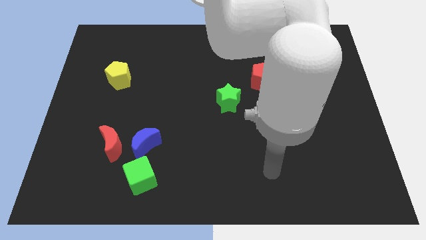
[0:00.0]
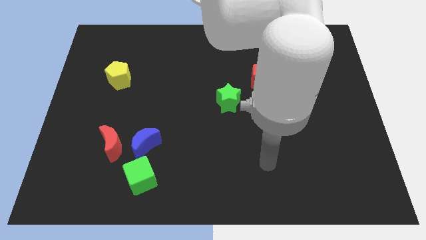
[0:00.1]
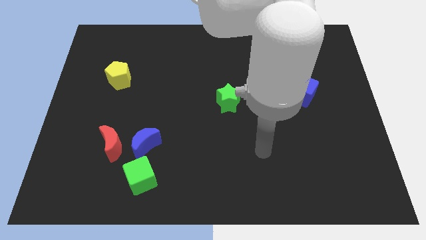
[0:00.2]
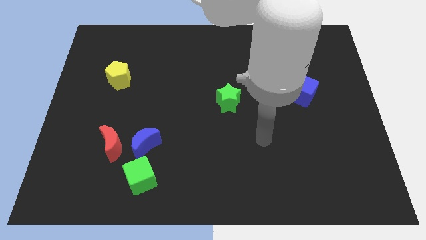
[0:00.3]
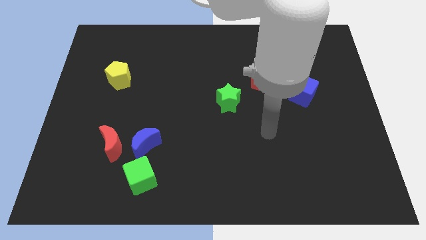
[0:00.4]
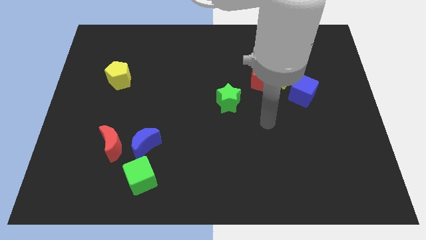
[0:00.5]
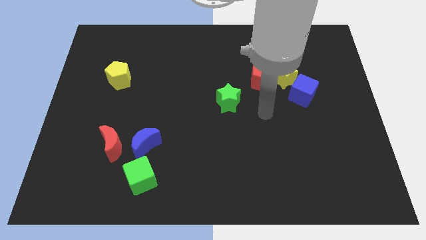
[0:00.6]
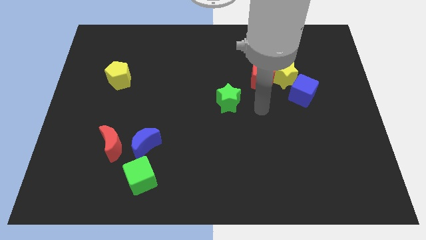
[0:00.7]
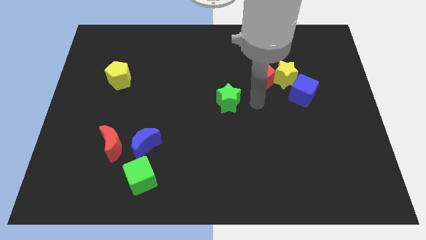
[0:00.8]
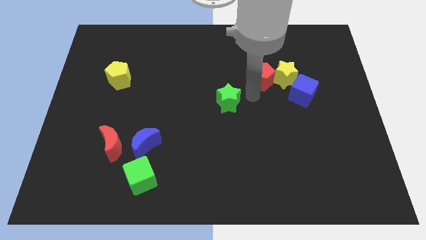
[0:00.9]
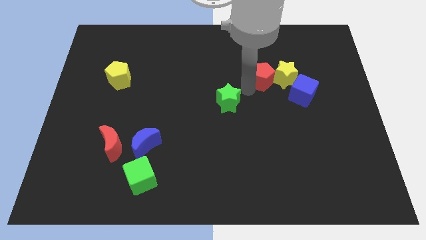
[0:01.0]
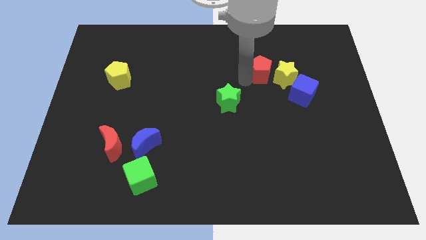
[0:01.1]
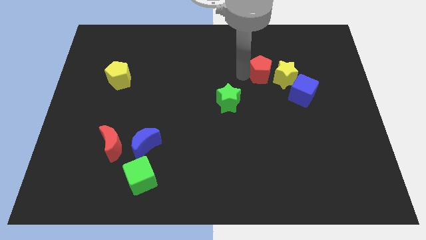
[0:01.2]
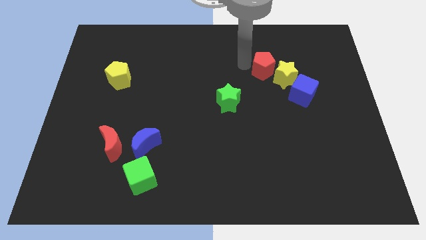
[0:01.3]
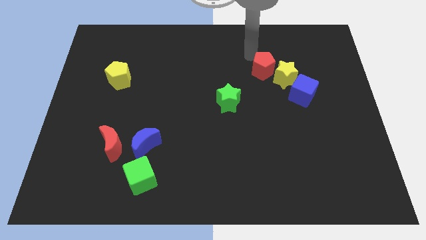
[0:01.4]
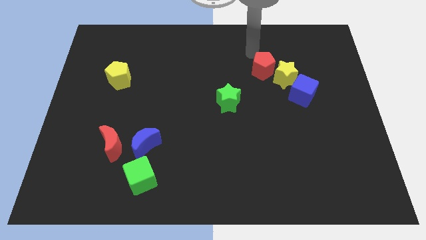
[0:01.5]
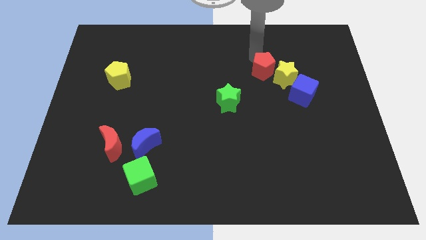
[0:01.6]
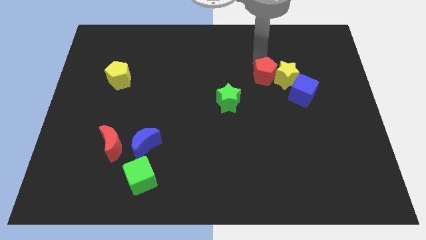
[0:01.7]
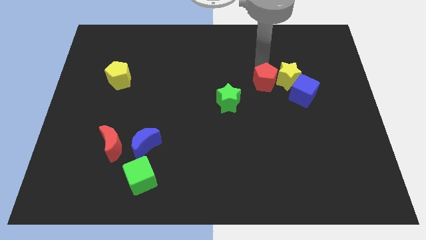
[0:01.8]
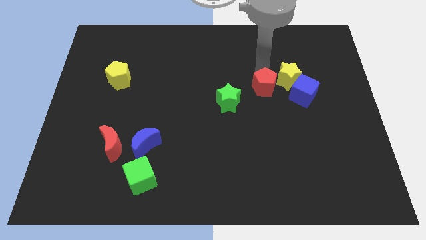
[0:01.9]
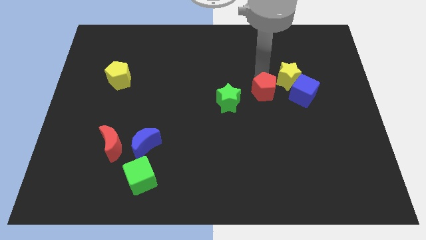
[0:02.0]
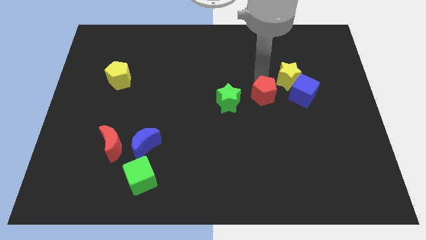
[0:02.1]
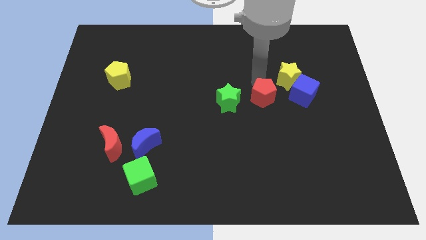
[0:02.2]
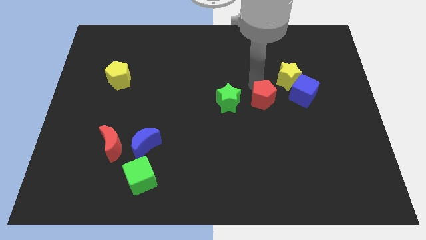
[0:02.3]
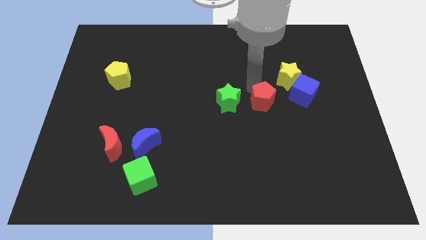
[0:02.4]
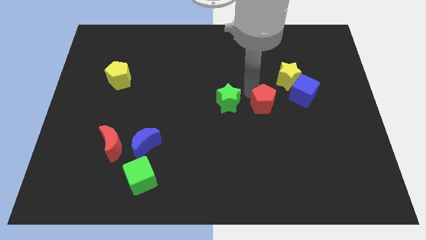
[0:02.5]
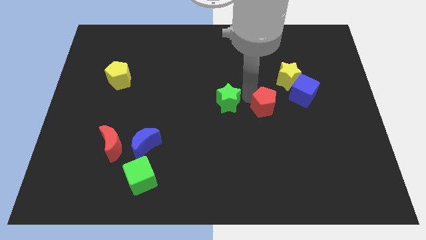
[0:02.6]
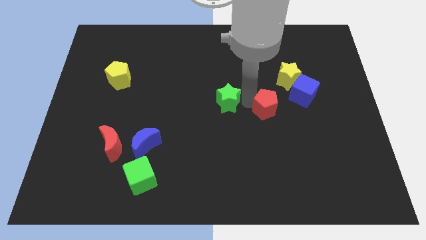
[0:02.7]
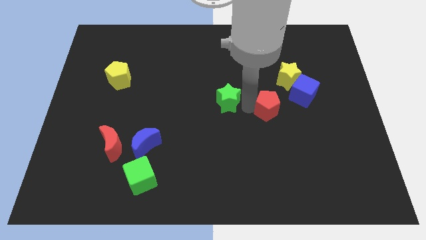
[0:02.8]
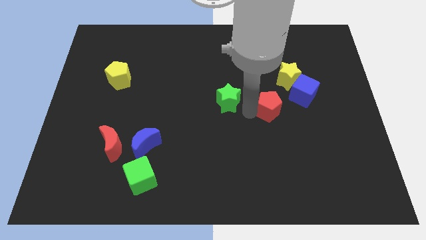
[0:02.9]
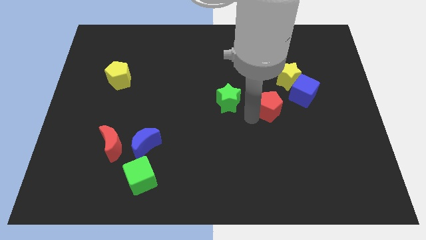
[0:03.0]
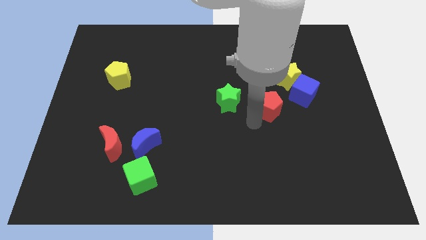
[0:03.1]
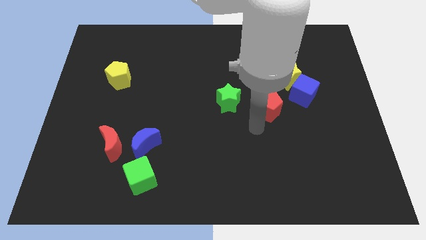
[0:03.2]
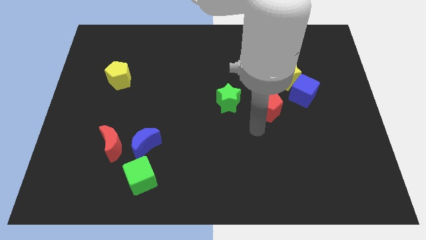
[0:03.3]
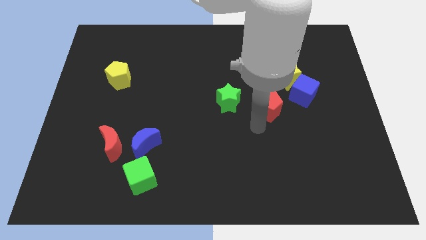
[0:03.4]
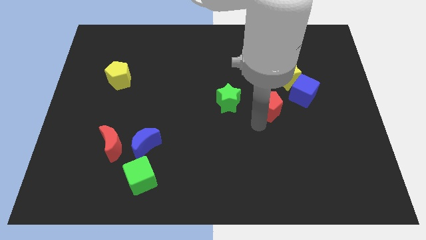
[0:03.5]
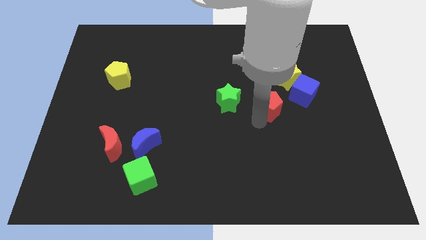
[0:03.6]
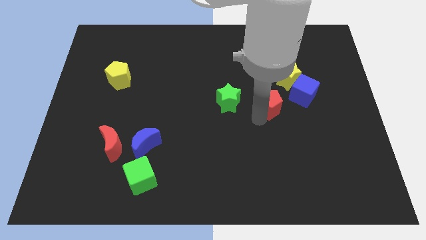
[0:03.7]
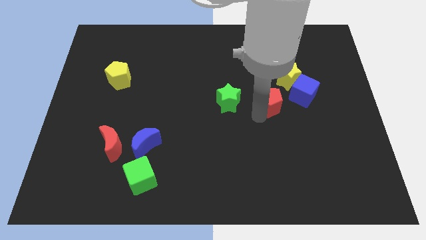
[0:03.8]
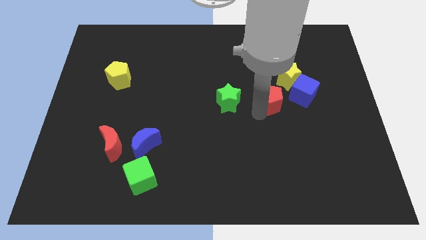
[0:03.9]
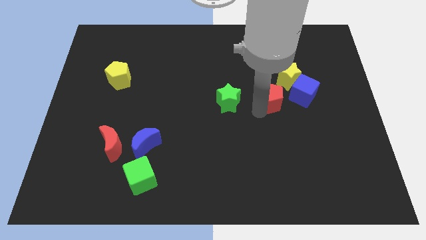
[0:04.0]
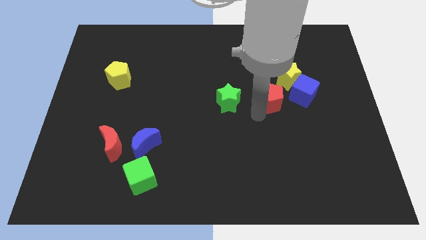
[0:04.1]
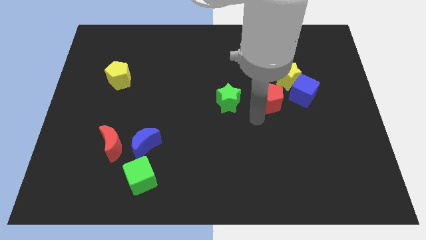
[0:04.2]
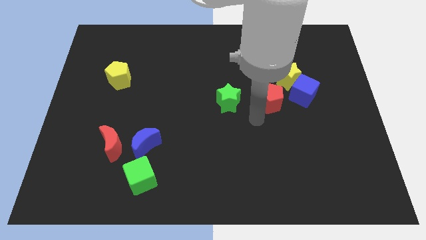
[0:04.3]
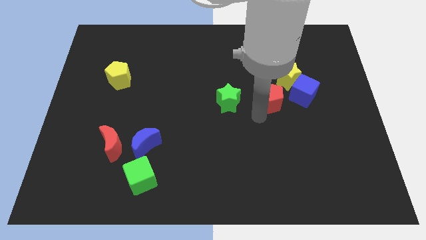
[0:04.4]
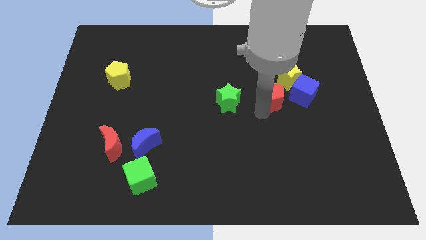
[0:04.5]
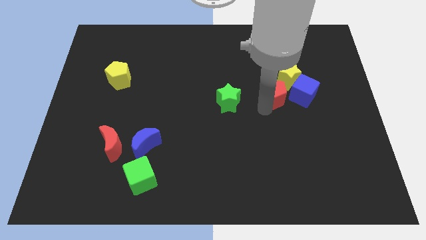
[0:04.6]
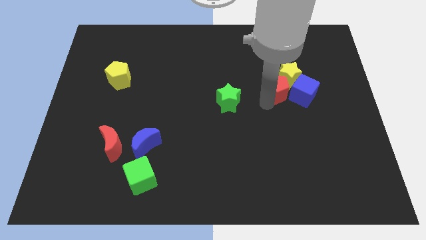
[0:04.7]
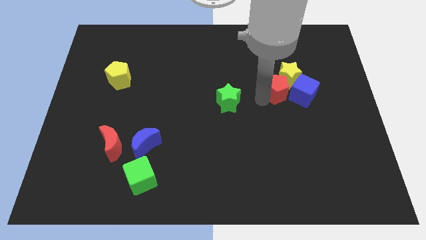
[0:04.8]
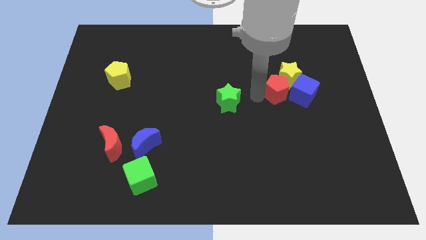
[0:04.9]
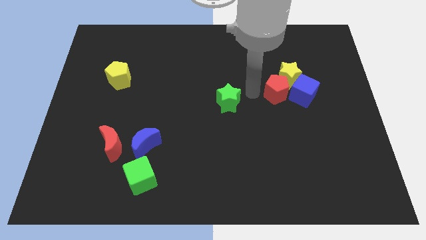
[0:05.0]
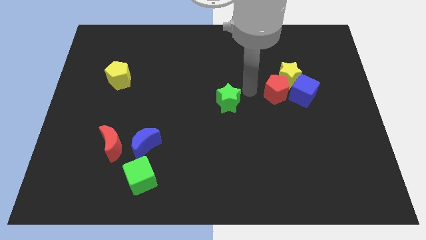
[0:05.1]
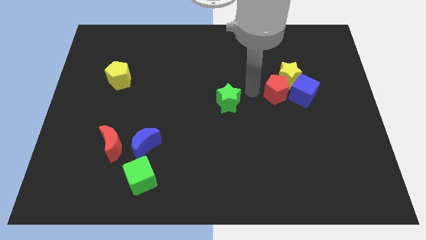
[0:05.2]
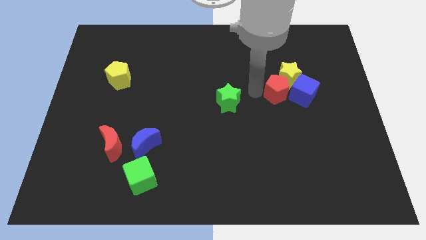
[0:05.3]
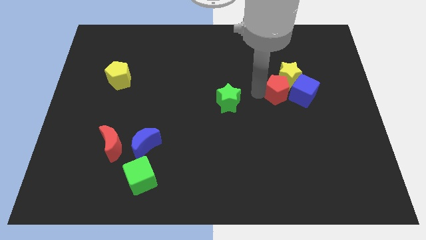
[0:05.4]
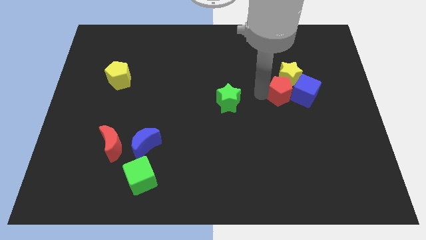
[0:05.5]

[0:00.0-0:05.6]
move the red pentagon to the blue cube

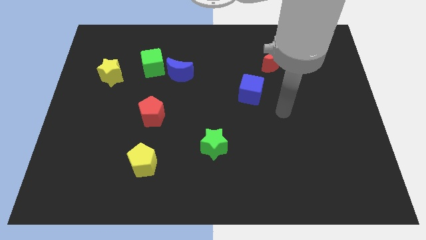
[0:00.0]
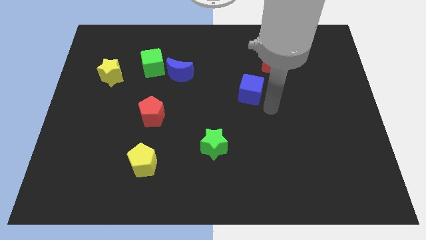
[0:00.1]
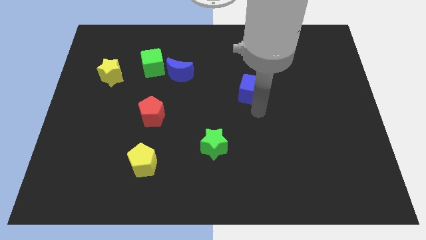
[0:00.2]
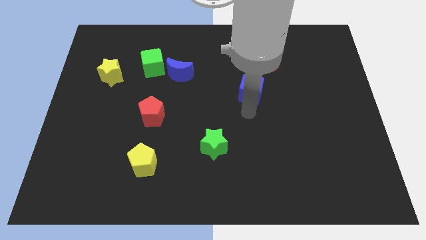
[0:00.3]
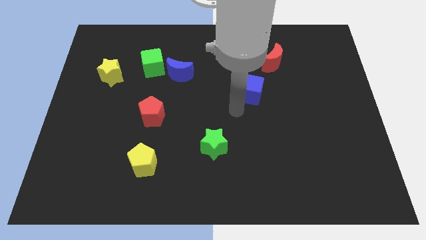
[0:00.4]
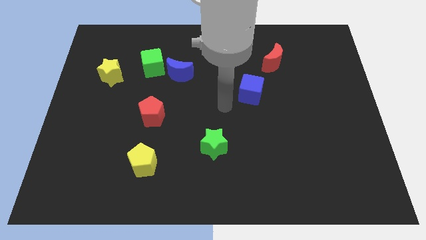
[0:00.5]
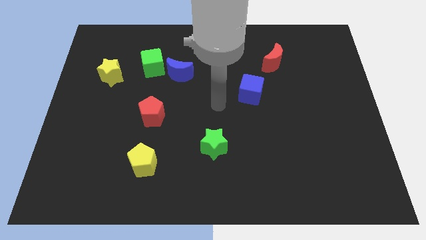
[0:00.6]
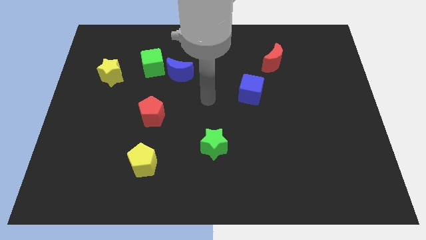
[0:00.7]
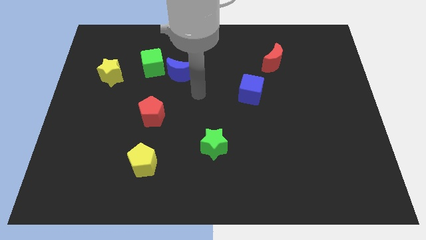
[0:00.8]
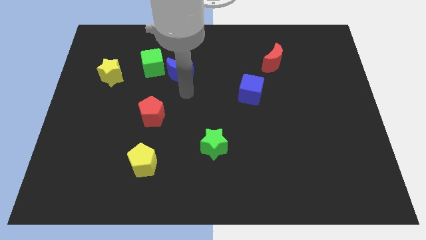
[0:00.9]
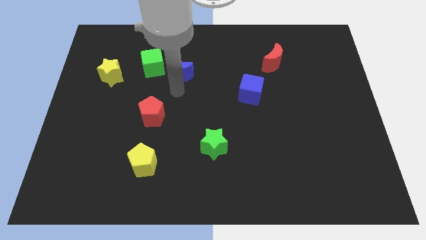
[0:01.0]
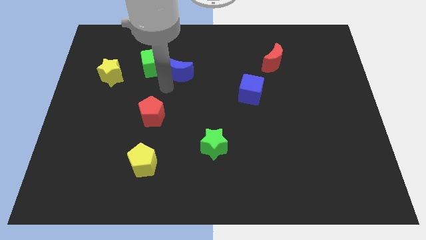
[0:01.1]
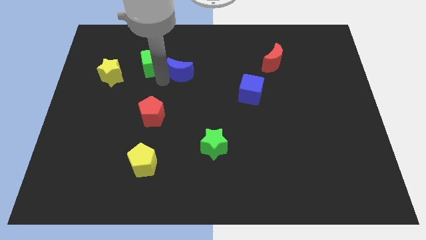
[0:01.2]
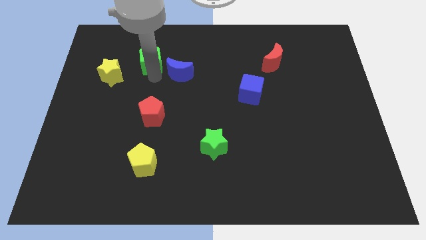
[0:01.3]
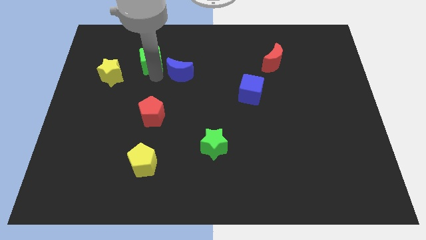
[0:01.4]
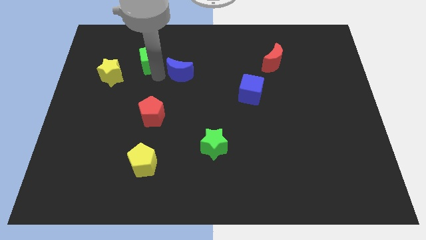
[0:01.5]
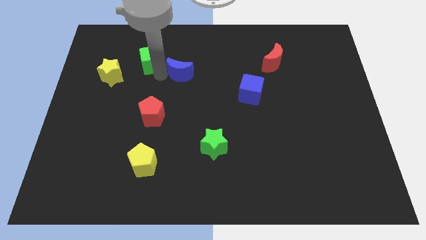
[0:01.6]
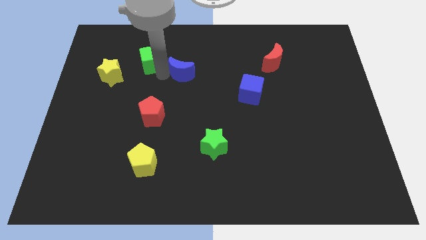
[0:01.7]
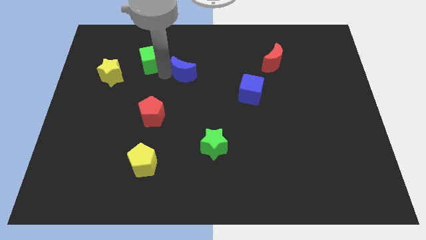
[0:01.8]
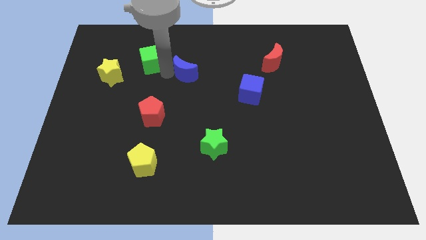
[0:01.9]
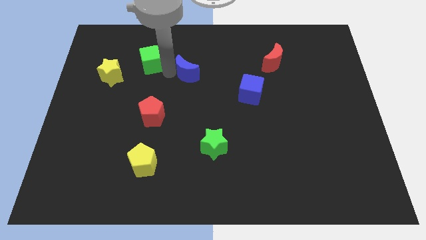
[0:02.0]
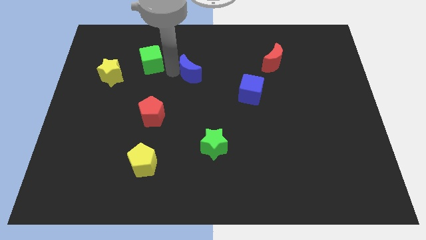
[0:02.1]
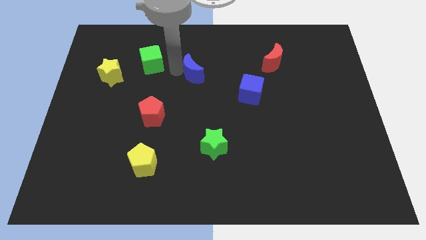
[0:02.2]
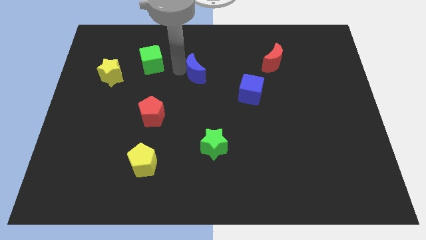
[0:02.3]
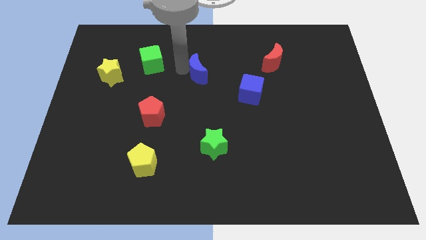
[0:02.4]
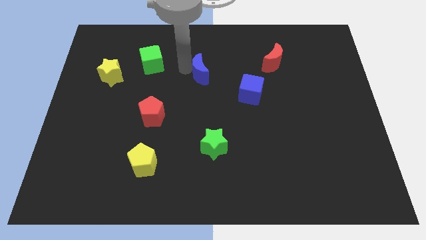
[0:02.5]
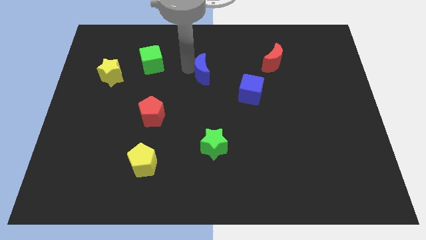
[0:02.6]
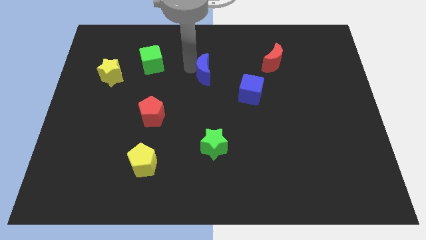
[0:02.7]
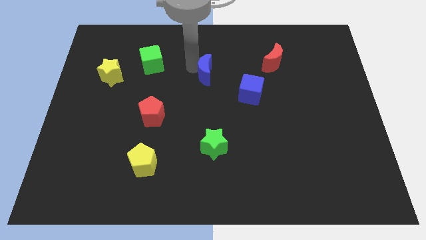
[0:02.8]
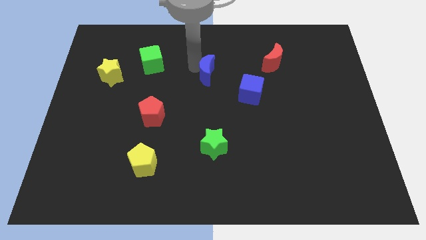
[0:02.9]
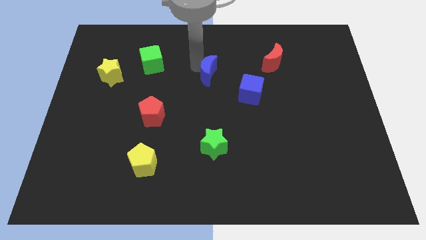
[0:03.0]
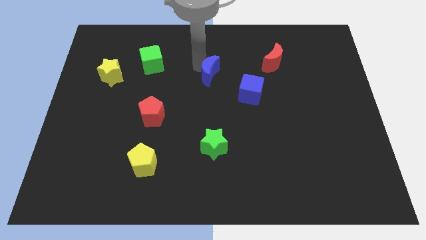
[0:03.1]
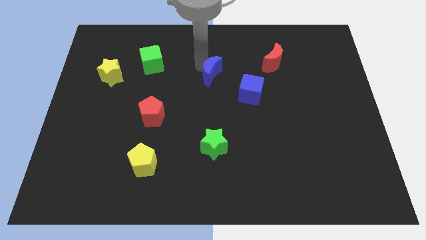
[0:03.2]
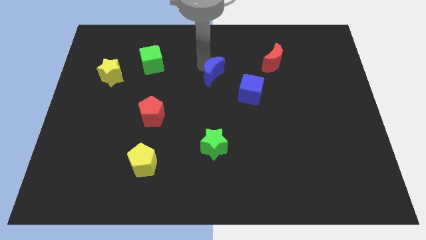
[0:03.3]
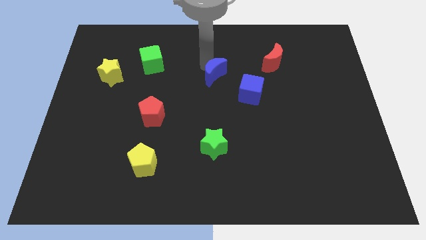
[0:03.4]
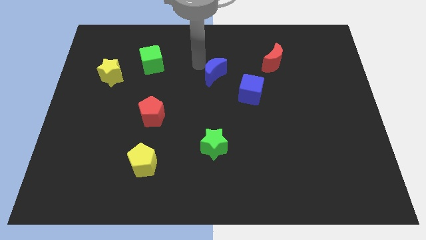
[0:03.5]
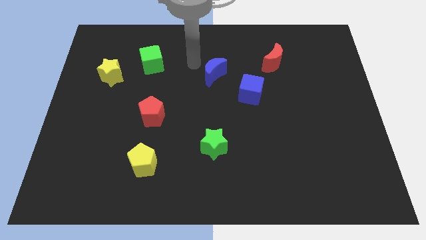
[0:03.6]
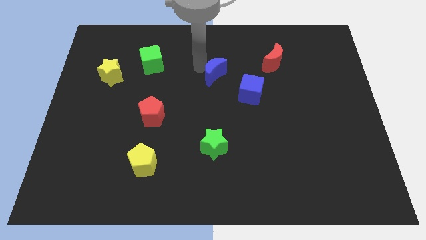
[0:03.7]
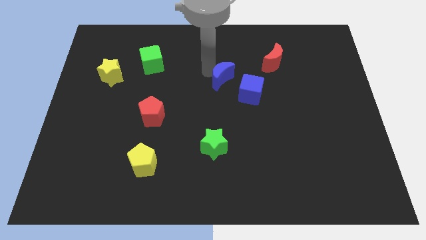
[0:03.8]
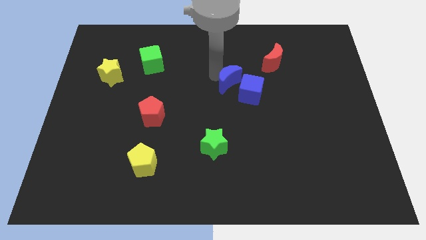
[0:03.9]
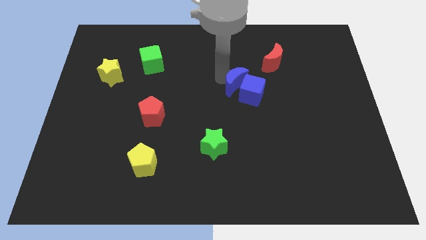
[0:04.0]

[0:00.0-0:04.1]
slide the blue moon close to the blue cube
